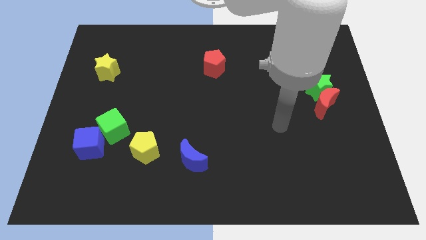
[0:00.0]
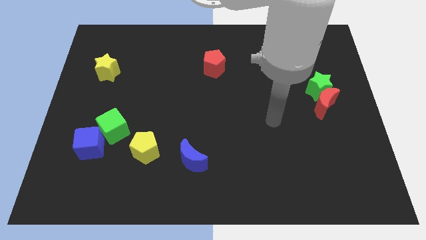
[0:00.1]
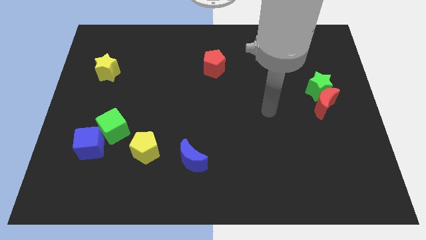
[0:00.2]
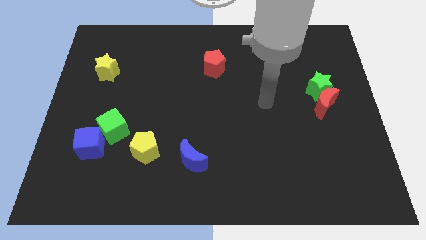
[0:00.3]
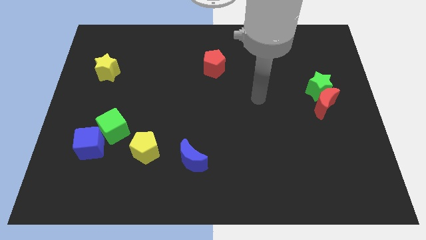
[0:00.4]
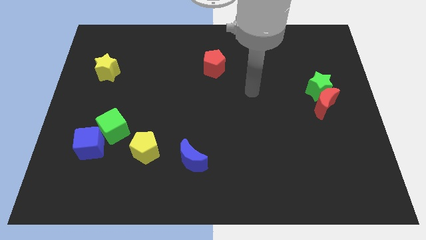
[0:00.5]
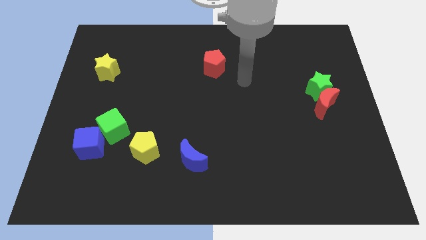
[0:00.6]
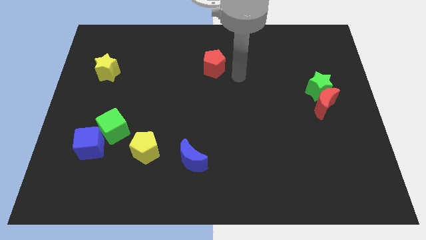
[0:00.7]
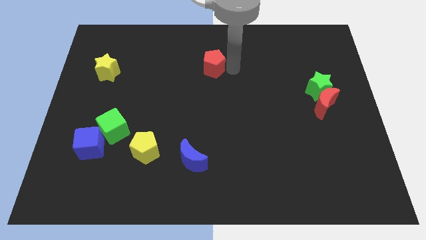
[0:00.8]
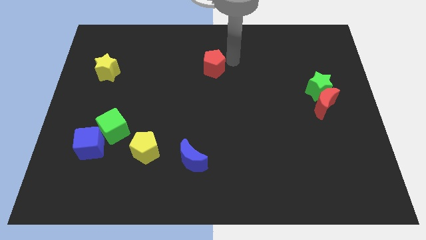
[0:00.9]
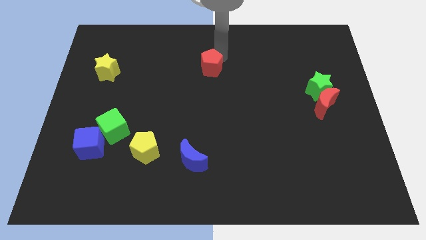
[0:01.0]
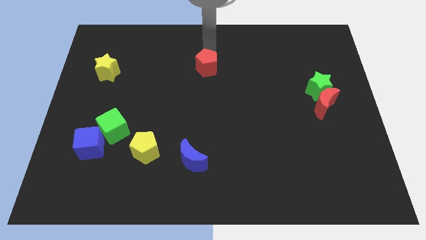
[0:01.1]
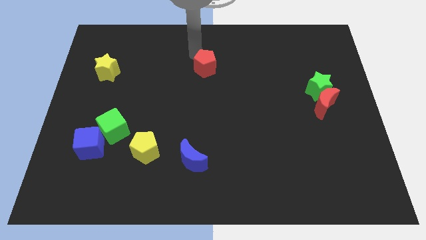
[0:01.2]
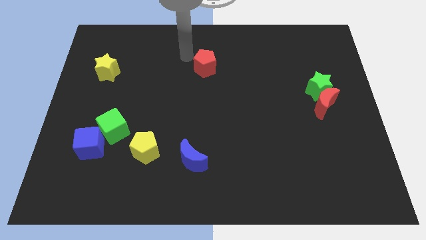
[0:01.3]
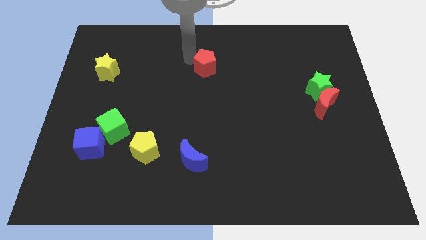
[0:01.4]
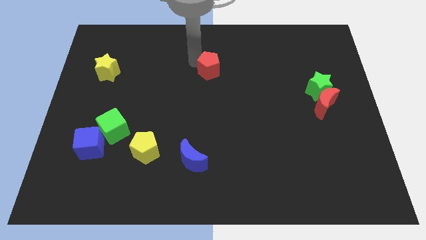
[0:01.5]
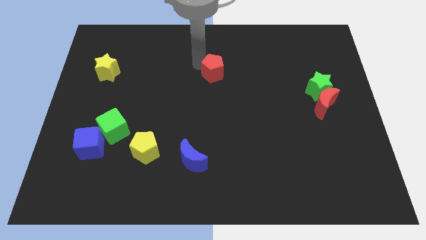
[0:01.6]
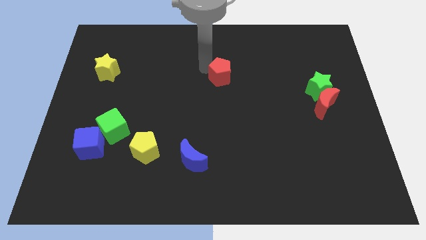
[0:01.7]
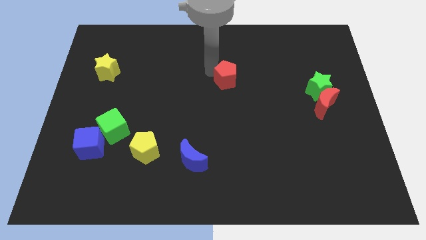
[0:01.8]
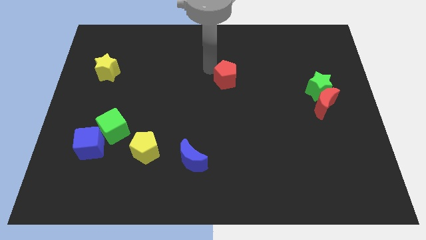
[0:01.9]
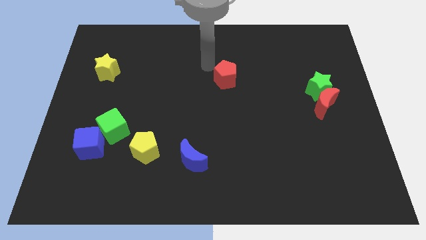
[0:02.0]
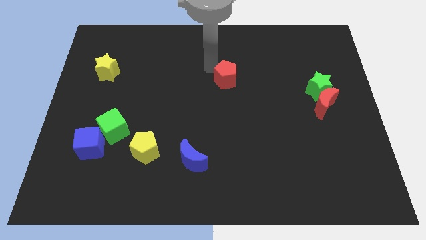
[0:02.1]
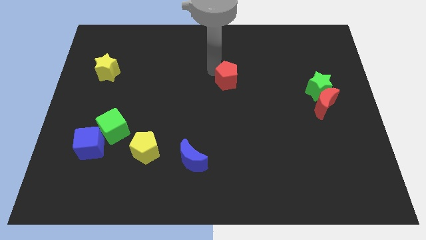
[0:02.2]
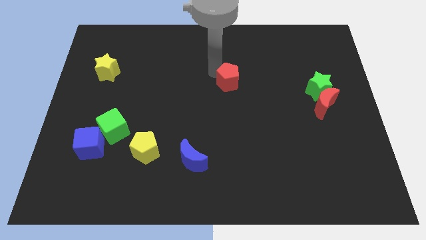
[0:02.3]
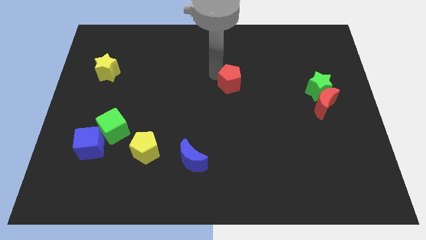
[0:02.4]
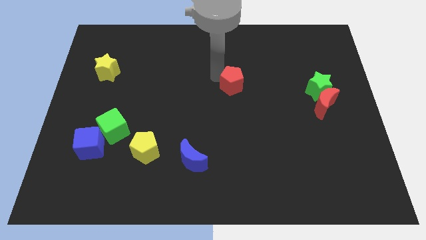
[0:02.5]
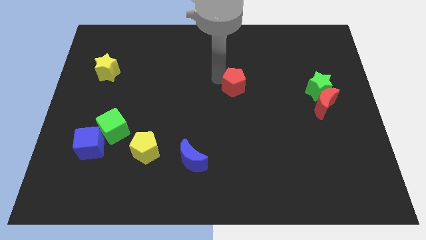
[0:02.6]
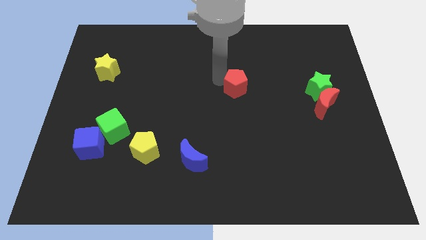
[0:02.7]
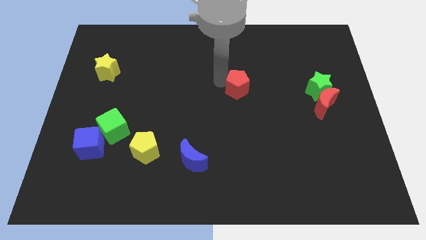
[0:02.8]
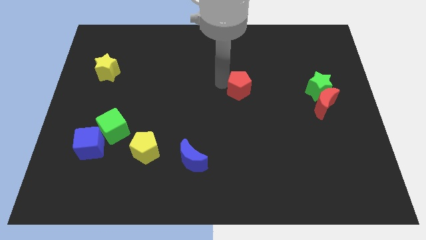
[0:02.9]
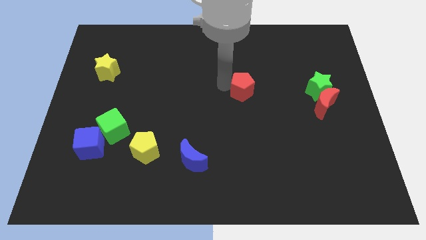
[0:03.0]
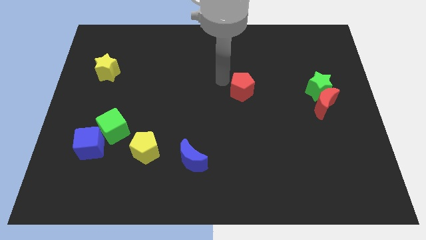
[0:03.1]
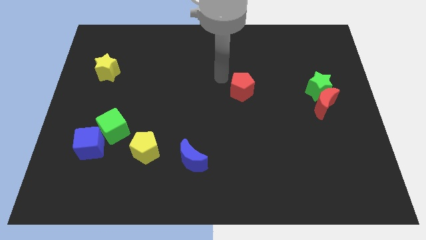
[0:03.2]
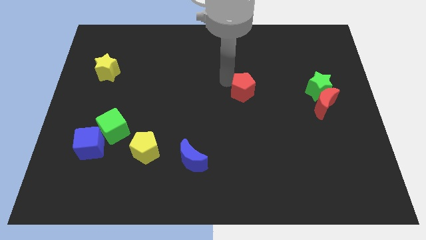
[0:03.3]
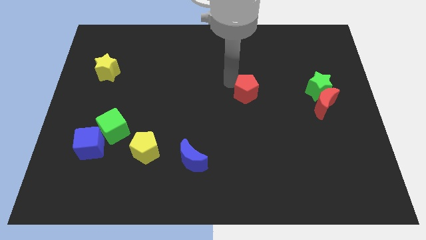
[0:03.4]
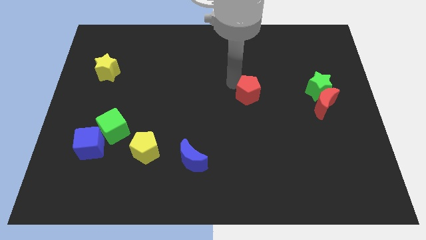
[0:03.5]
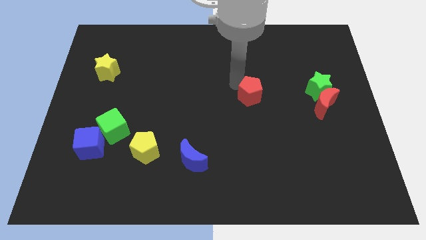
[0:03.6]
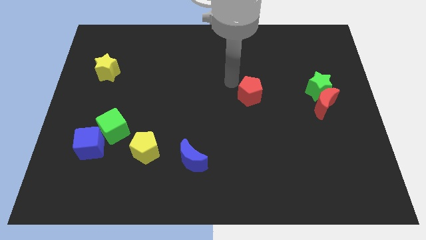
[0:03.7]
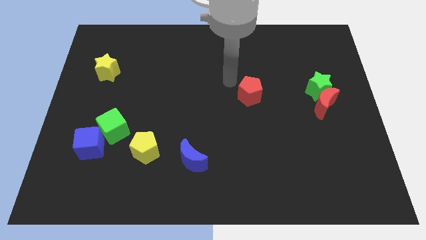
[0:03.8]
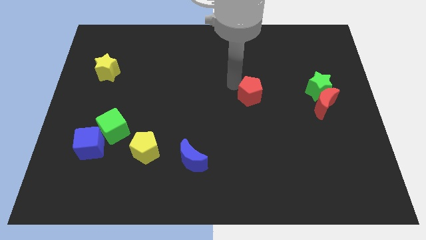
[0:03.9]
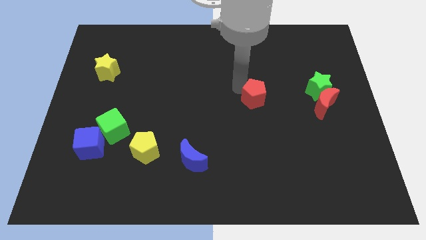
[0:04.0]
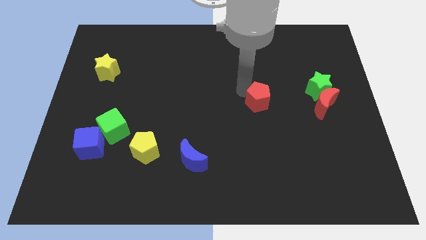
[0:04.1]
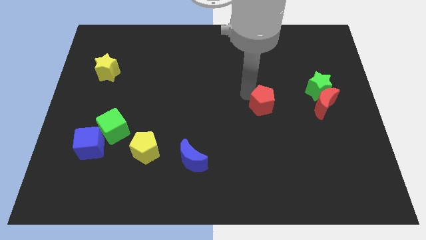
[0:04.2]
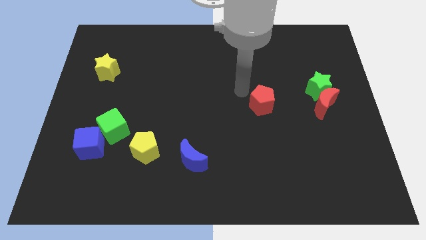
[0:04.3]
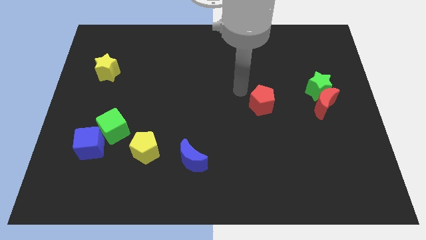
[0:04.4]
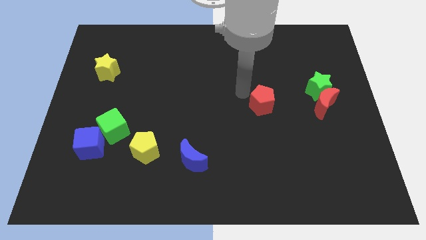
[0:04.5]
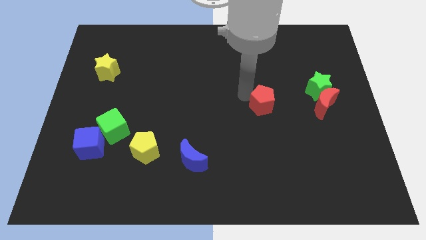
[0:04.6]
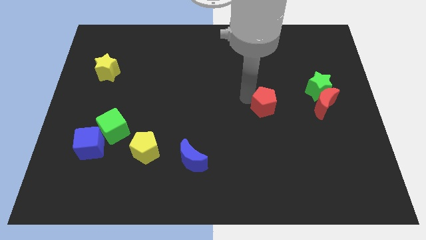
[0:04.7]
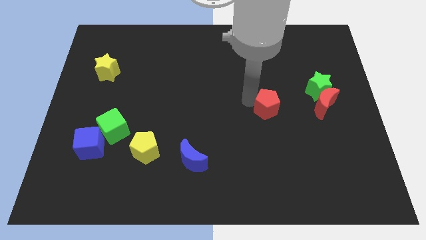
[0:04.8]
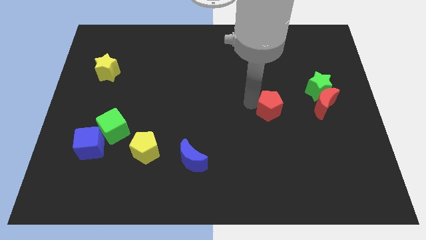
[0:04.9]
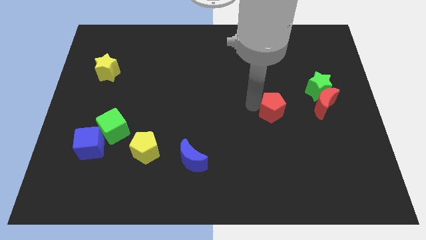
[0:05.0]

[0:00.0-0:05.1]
move the red pentagon down and then to the right

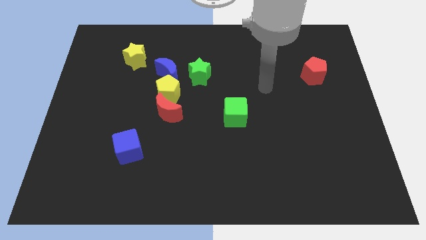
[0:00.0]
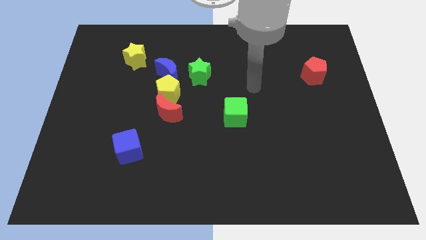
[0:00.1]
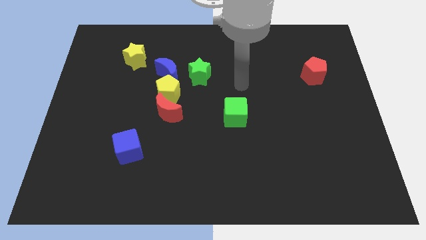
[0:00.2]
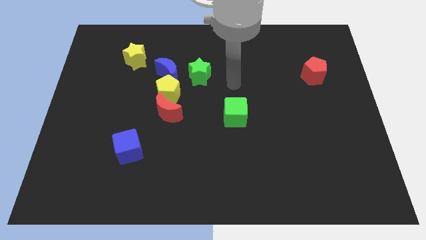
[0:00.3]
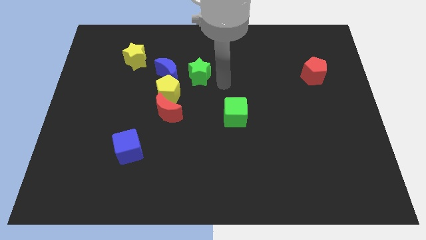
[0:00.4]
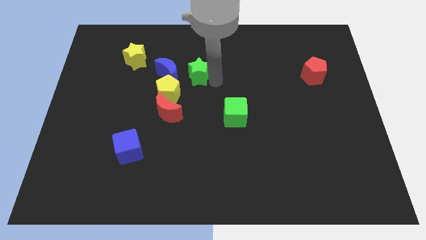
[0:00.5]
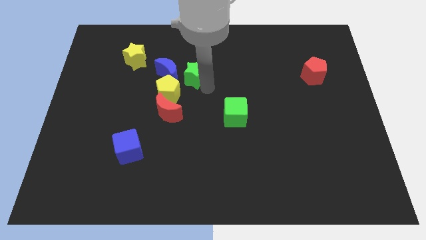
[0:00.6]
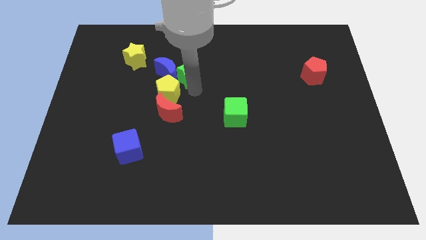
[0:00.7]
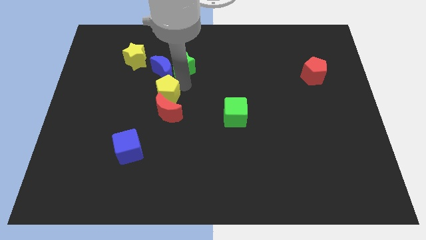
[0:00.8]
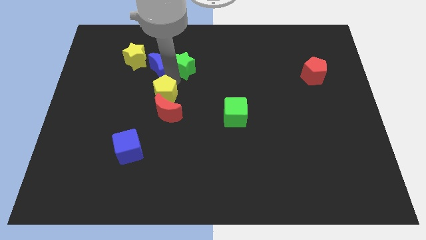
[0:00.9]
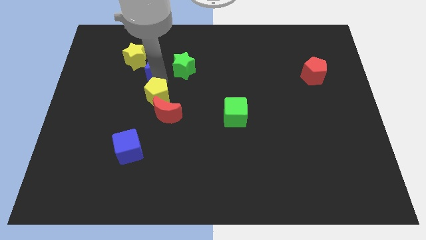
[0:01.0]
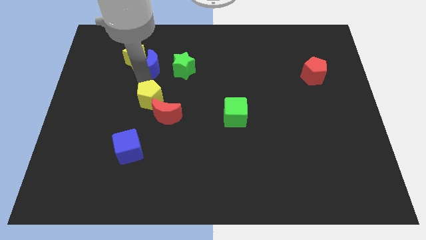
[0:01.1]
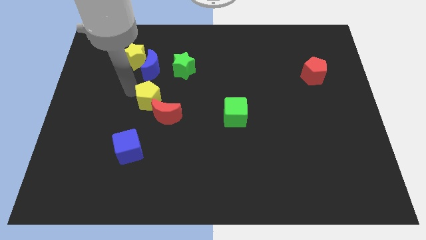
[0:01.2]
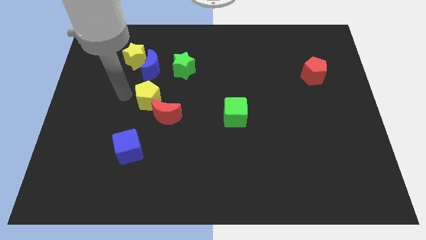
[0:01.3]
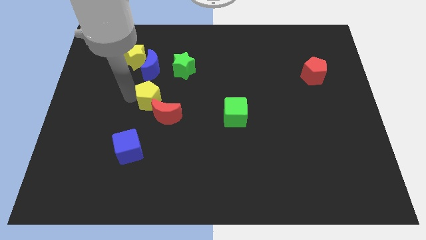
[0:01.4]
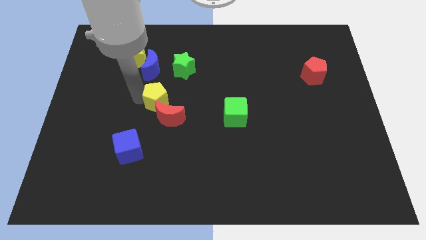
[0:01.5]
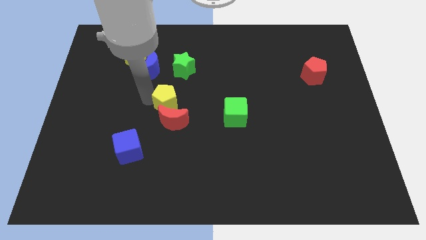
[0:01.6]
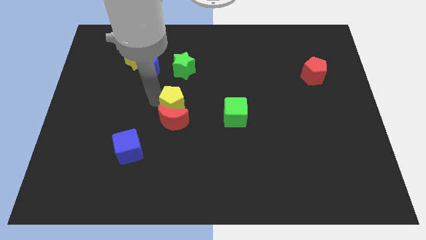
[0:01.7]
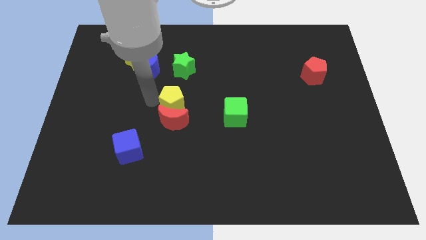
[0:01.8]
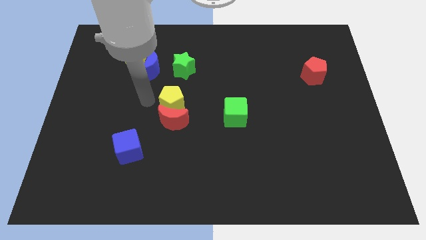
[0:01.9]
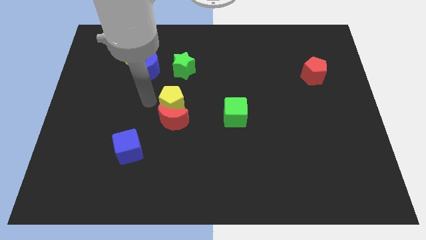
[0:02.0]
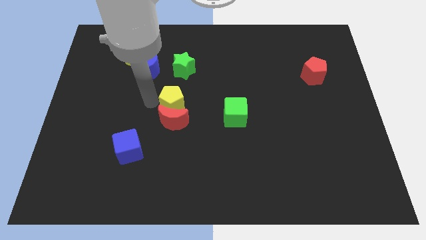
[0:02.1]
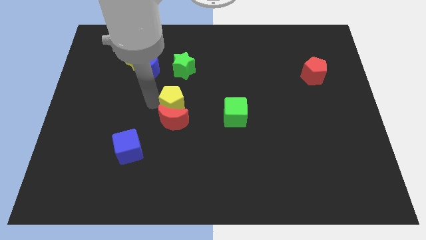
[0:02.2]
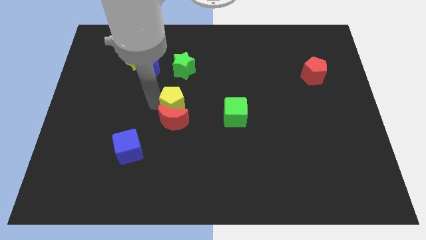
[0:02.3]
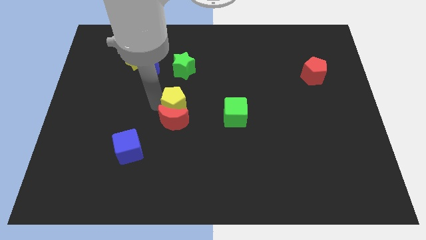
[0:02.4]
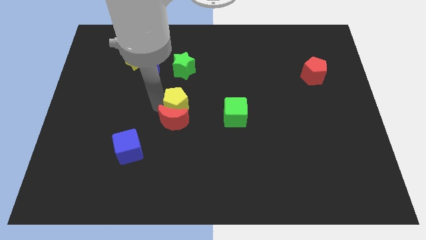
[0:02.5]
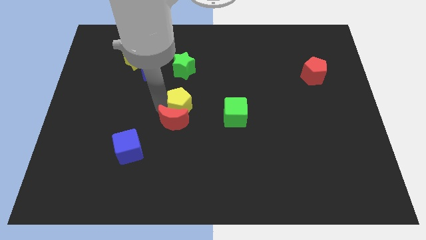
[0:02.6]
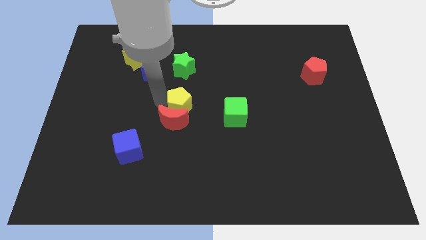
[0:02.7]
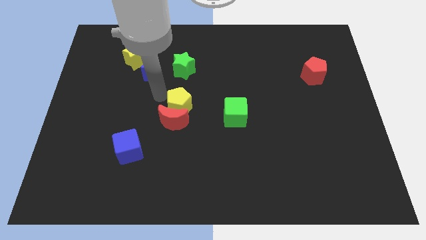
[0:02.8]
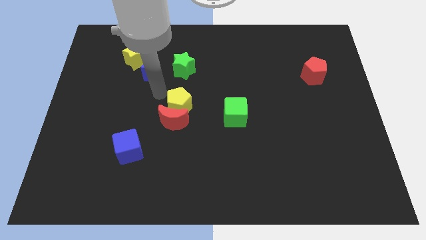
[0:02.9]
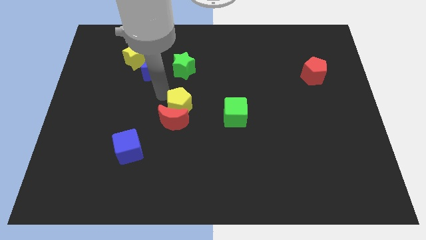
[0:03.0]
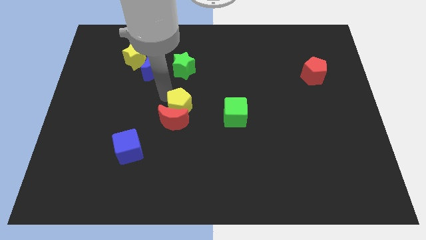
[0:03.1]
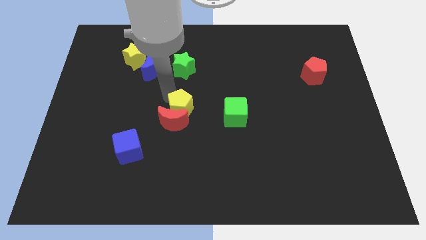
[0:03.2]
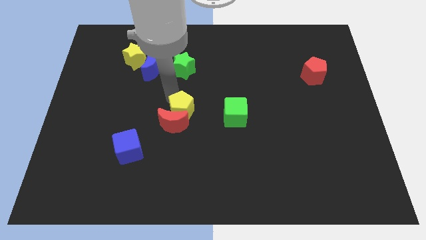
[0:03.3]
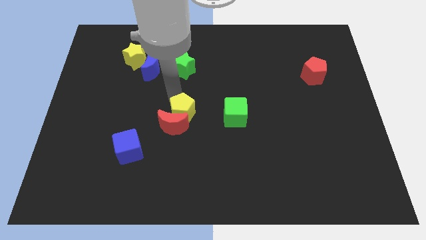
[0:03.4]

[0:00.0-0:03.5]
move the yellow pentagon downwards and then to the right a bit
